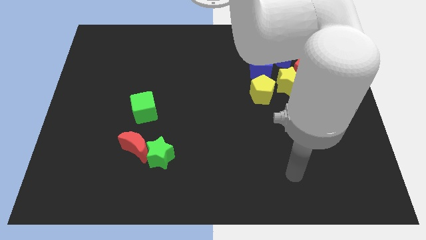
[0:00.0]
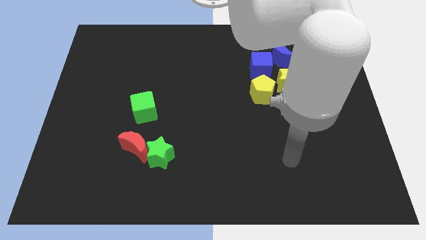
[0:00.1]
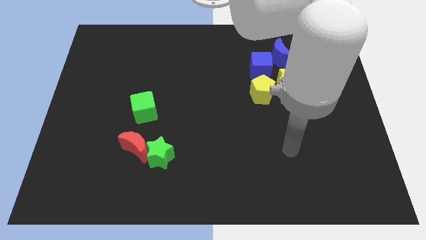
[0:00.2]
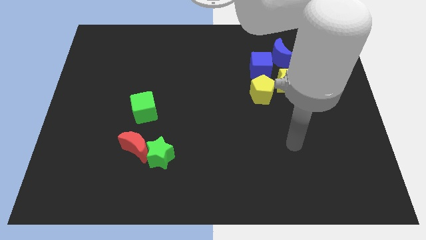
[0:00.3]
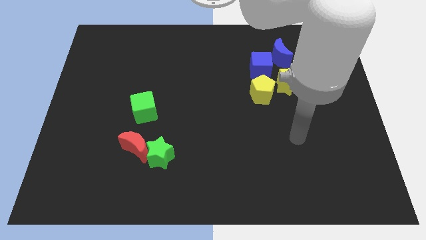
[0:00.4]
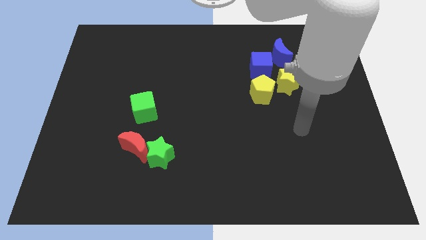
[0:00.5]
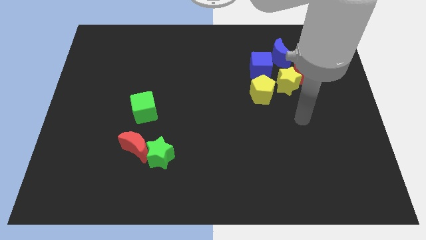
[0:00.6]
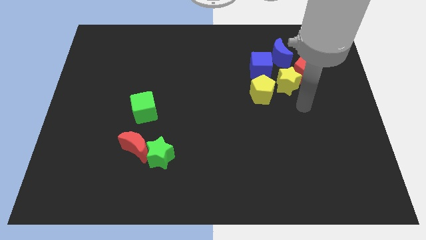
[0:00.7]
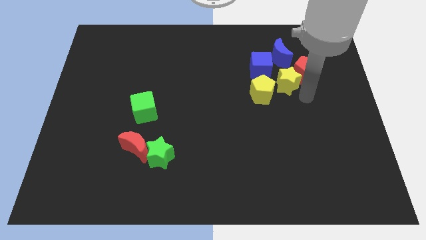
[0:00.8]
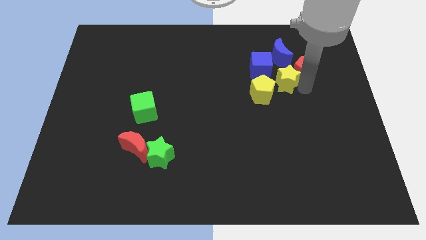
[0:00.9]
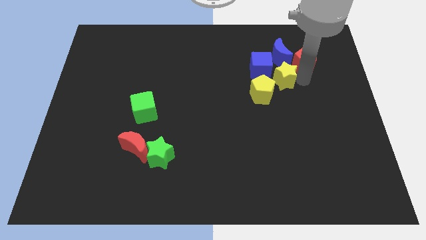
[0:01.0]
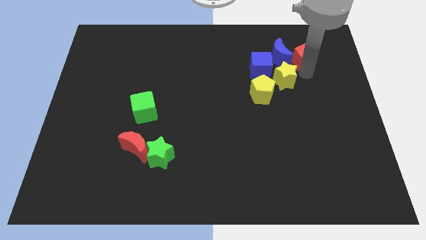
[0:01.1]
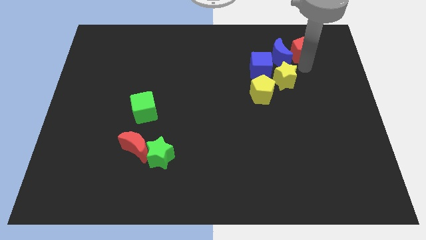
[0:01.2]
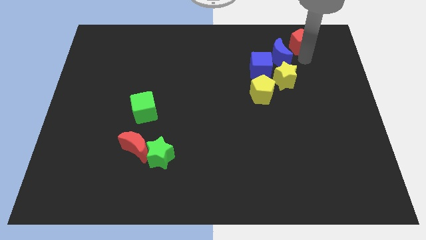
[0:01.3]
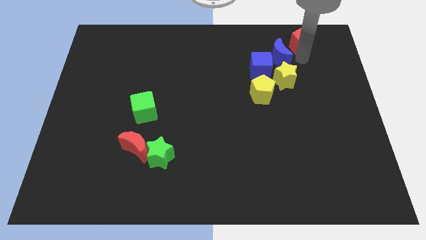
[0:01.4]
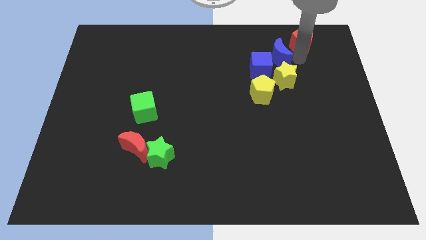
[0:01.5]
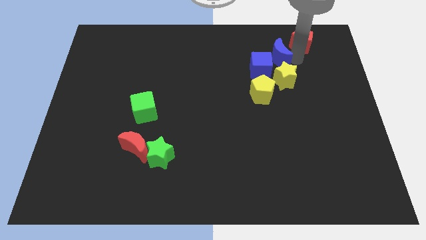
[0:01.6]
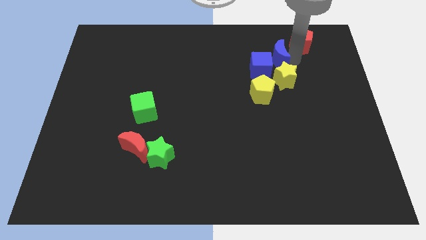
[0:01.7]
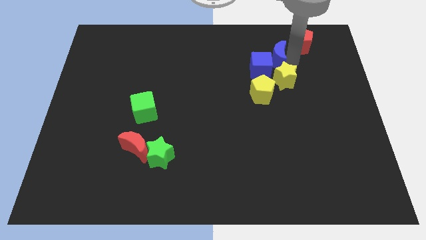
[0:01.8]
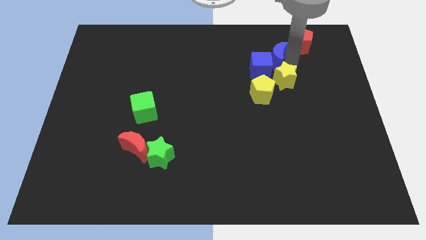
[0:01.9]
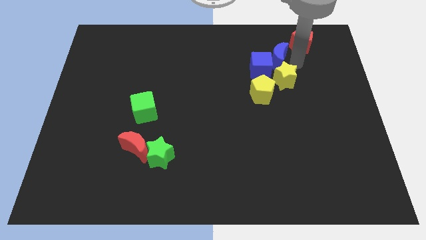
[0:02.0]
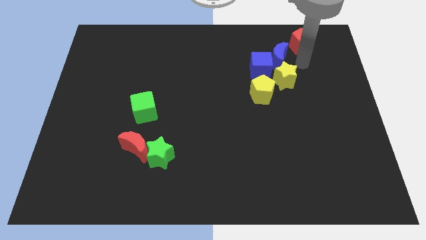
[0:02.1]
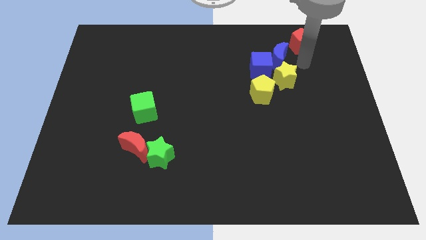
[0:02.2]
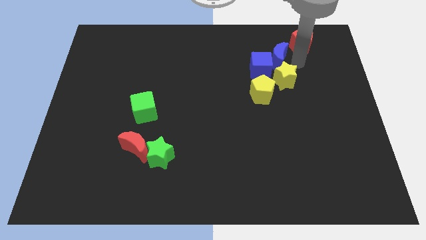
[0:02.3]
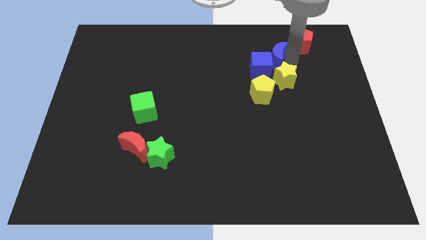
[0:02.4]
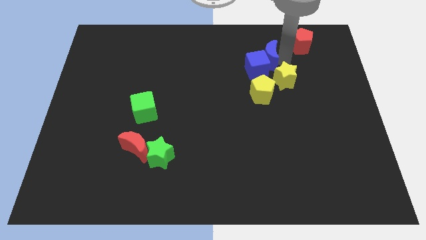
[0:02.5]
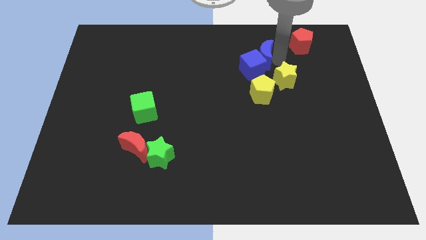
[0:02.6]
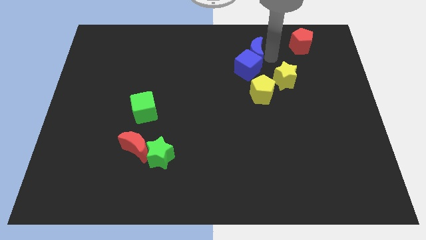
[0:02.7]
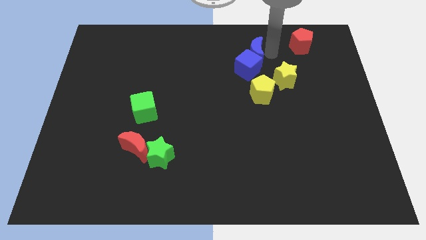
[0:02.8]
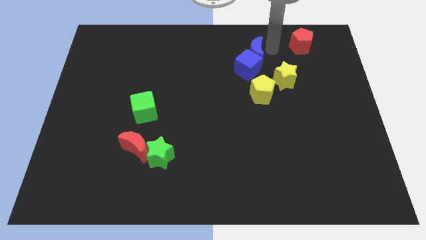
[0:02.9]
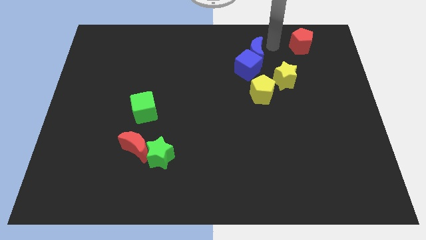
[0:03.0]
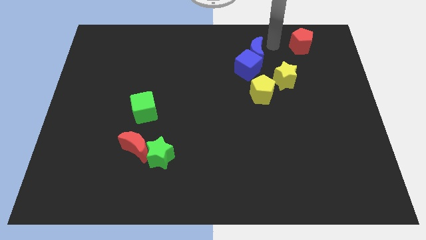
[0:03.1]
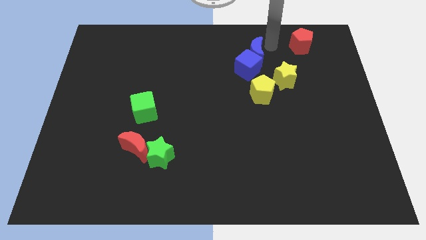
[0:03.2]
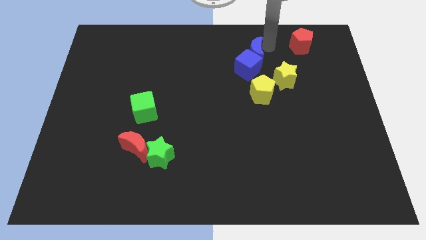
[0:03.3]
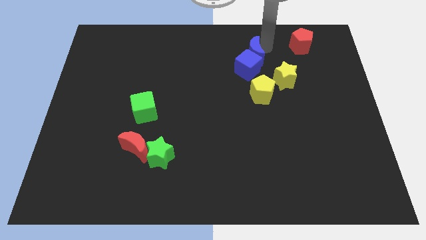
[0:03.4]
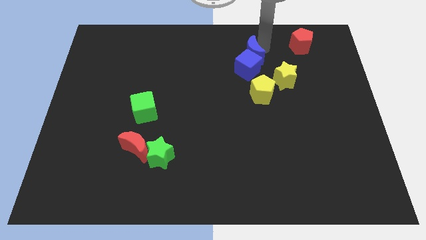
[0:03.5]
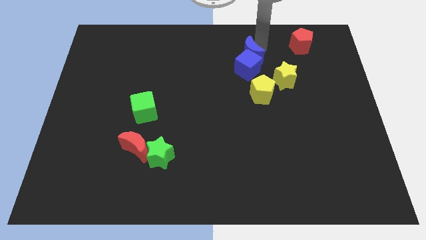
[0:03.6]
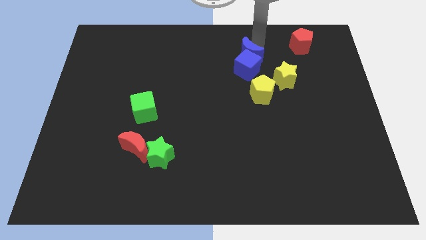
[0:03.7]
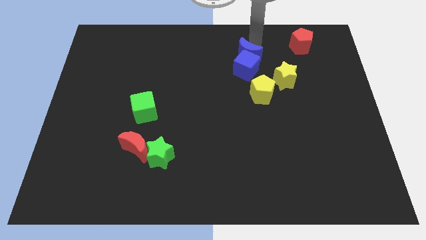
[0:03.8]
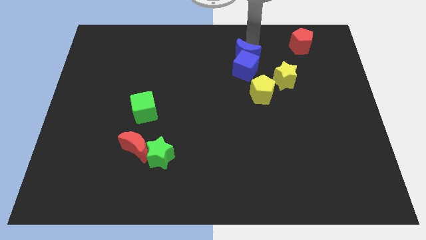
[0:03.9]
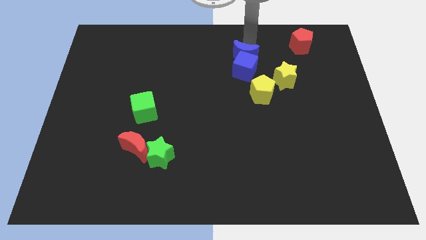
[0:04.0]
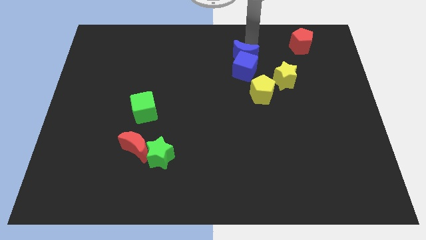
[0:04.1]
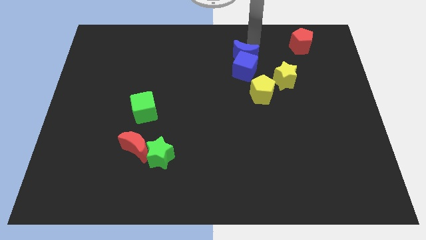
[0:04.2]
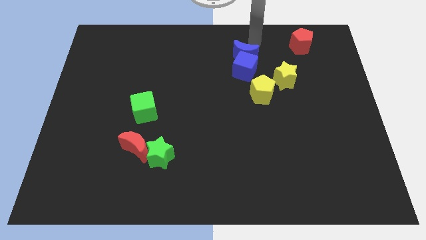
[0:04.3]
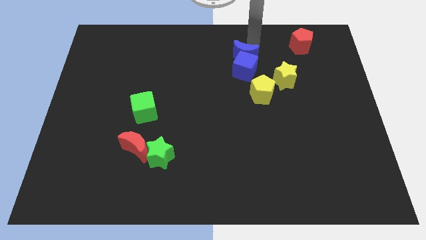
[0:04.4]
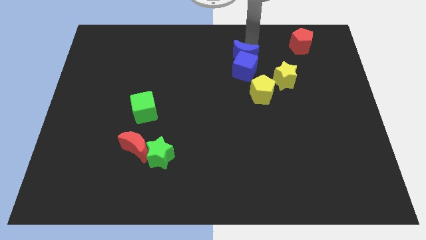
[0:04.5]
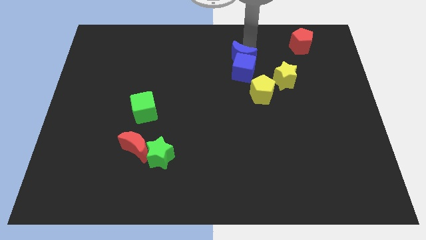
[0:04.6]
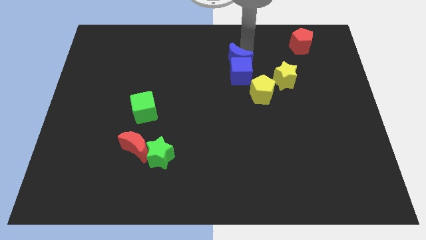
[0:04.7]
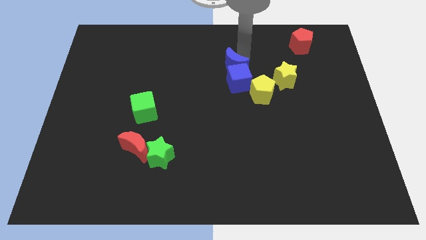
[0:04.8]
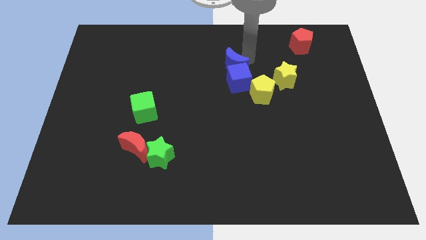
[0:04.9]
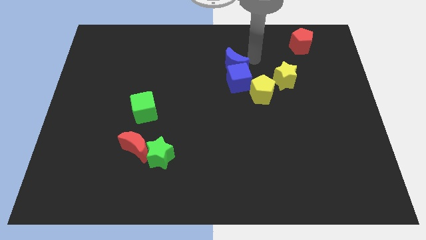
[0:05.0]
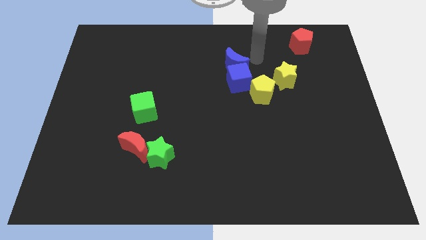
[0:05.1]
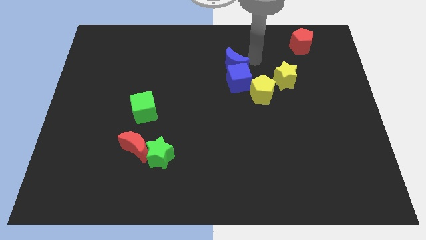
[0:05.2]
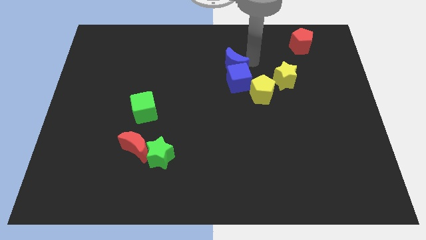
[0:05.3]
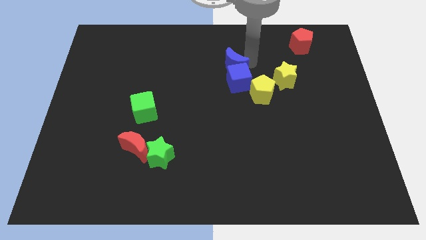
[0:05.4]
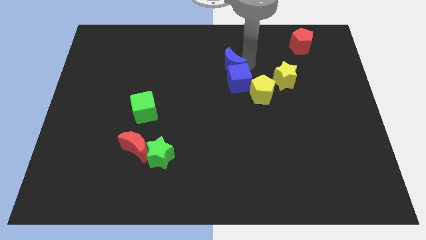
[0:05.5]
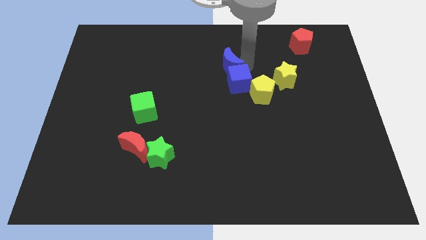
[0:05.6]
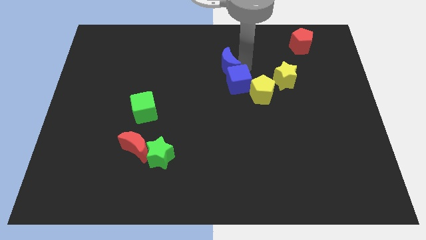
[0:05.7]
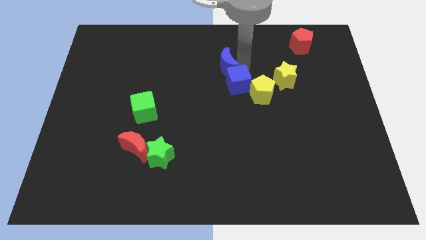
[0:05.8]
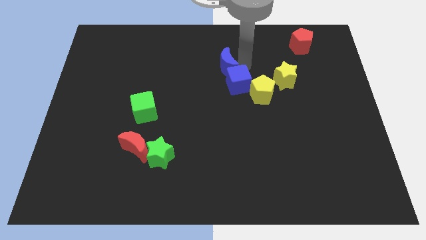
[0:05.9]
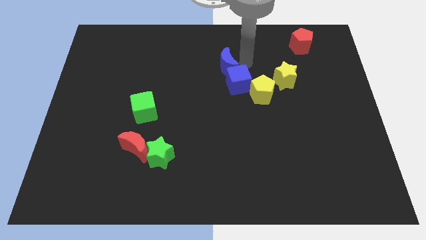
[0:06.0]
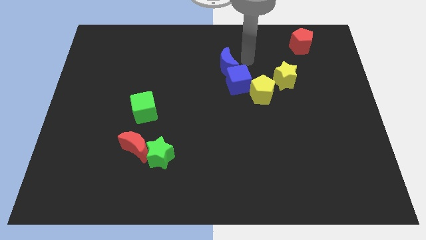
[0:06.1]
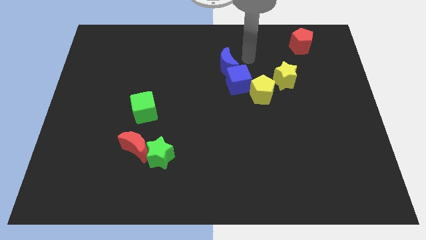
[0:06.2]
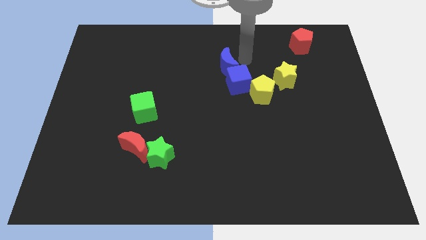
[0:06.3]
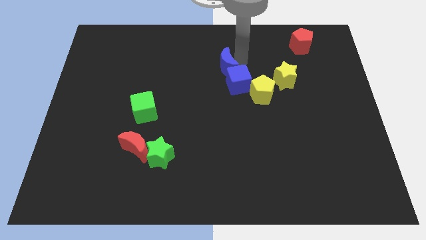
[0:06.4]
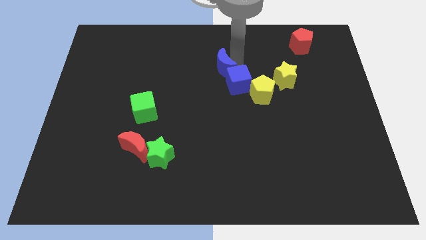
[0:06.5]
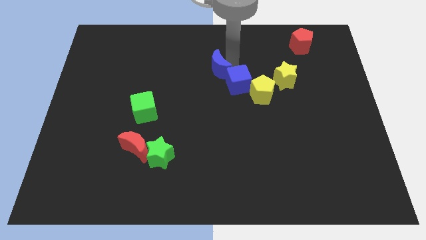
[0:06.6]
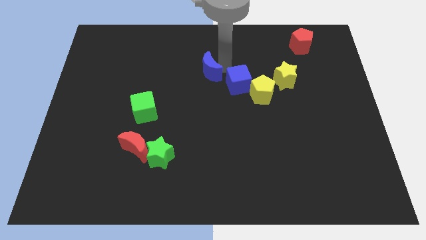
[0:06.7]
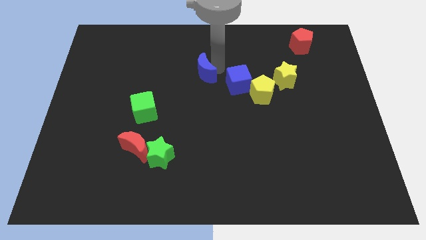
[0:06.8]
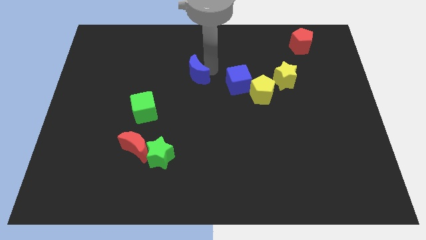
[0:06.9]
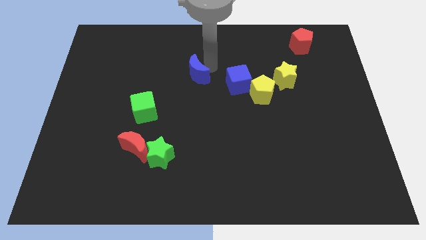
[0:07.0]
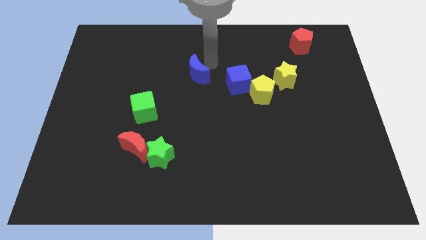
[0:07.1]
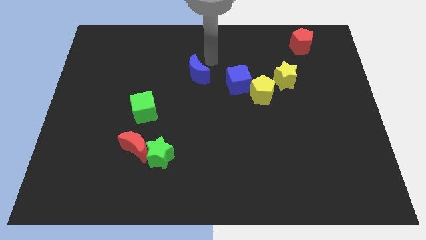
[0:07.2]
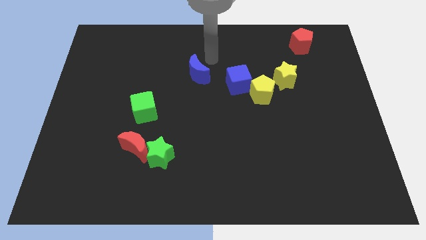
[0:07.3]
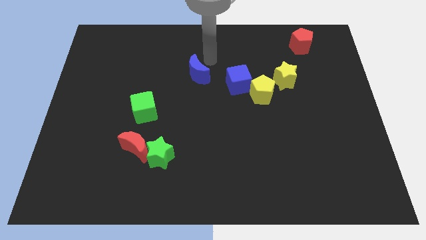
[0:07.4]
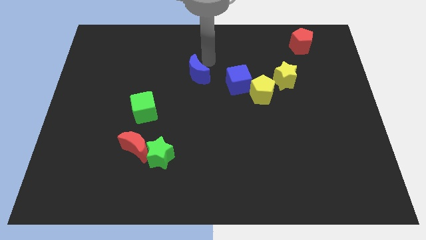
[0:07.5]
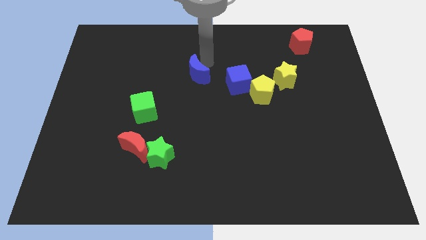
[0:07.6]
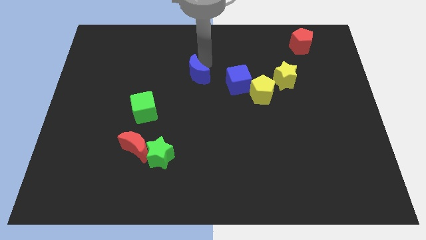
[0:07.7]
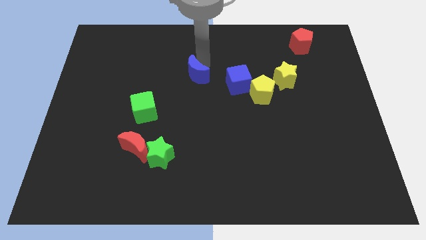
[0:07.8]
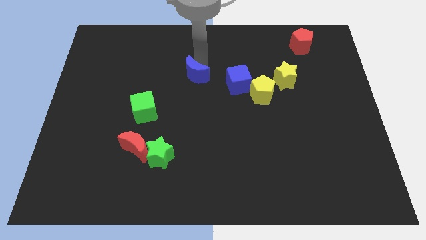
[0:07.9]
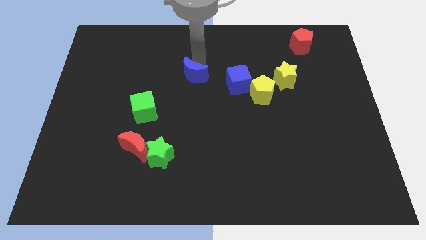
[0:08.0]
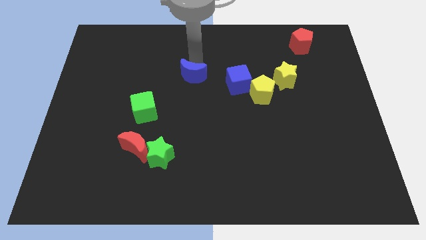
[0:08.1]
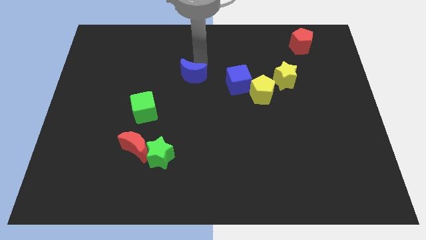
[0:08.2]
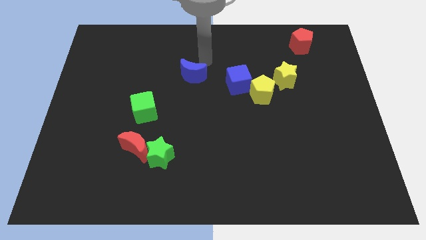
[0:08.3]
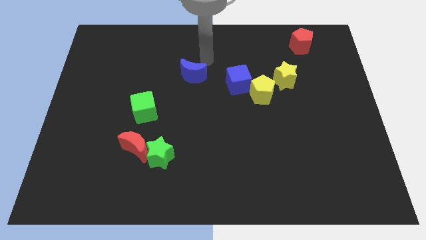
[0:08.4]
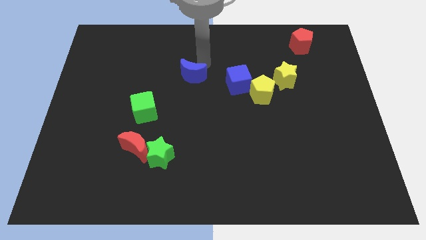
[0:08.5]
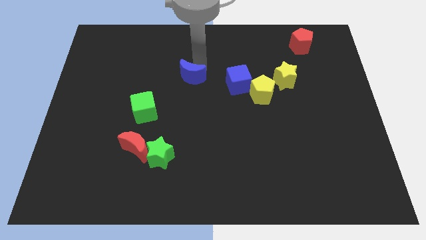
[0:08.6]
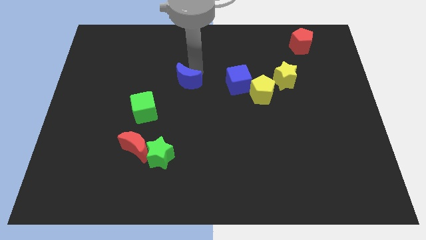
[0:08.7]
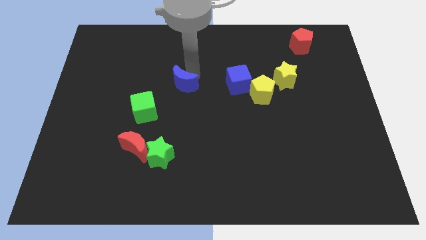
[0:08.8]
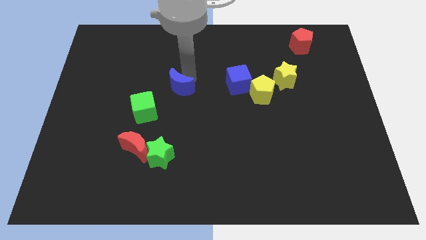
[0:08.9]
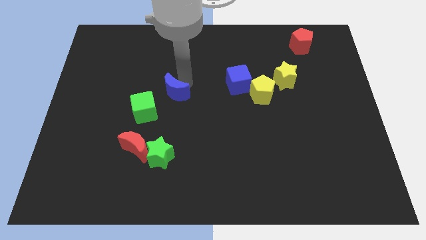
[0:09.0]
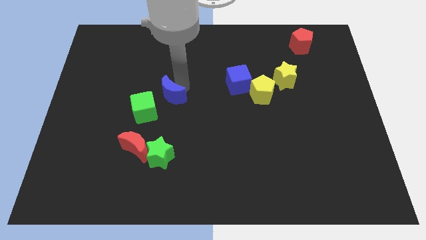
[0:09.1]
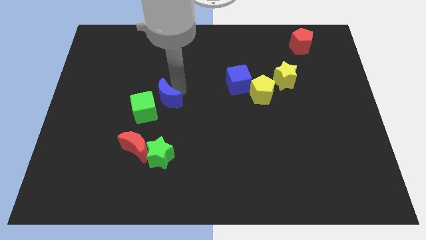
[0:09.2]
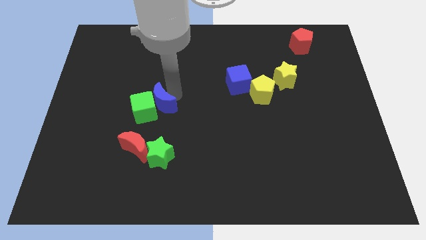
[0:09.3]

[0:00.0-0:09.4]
push the blue moon towards the green cube
